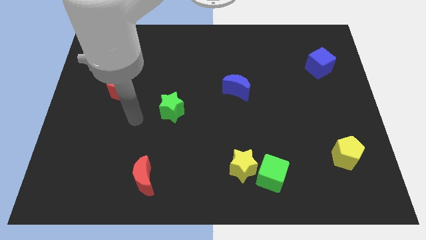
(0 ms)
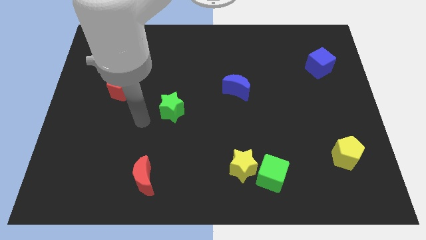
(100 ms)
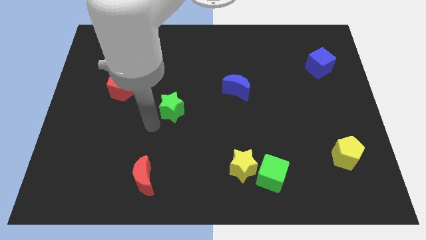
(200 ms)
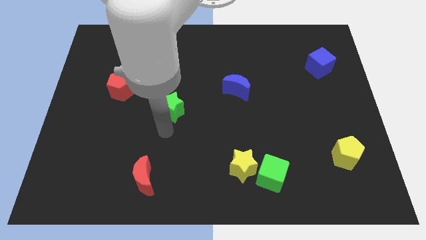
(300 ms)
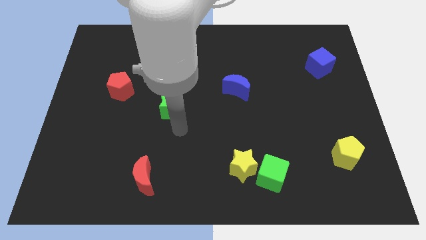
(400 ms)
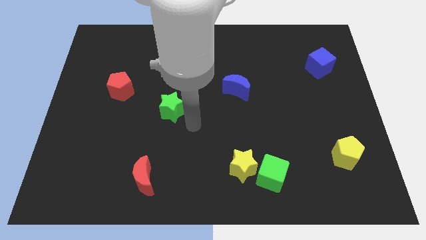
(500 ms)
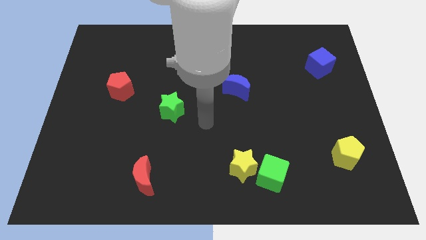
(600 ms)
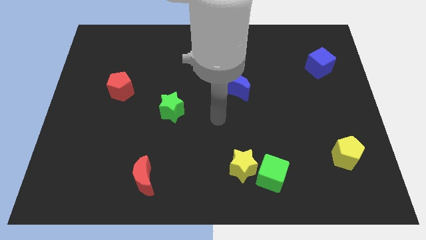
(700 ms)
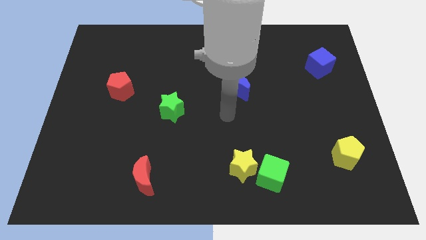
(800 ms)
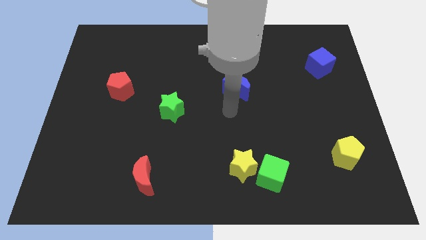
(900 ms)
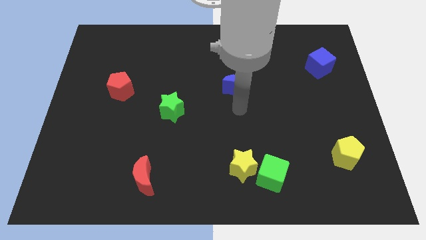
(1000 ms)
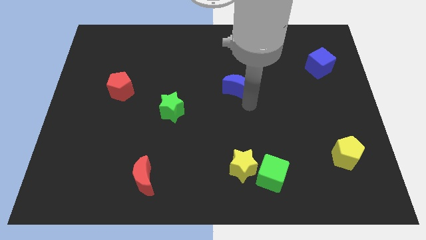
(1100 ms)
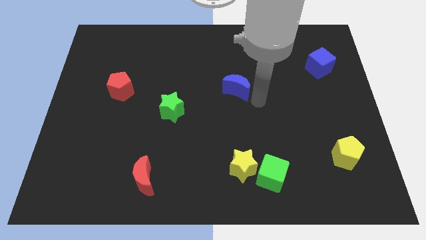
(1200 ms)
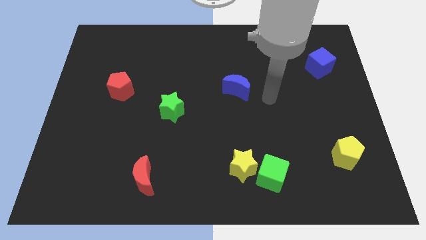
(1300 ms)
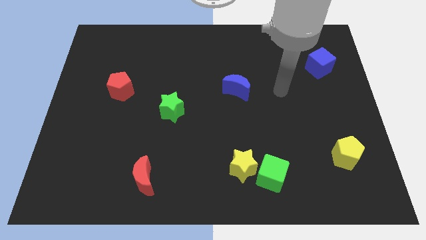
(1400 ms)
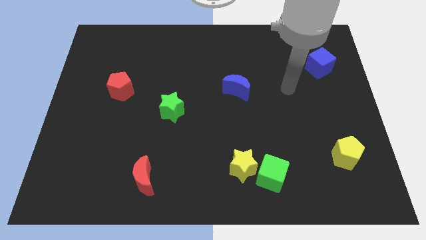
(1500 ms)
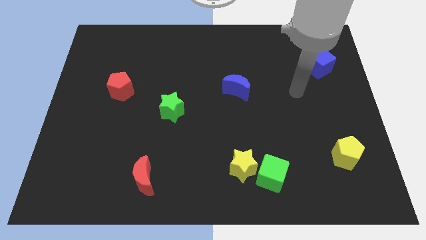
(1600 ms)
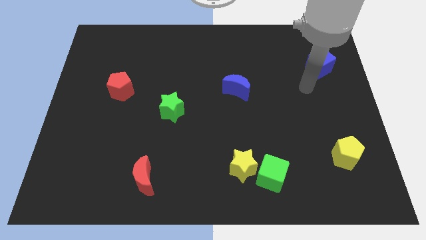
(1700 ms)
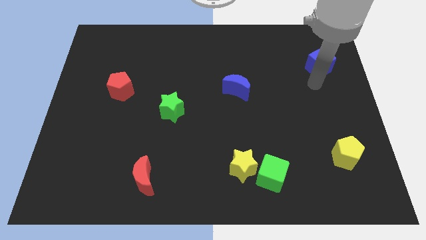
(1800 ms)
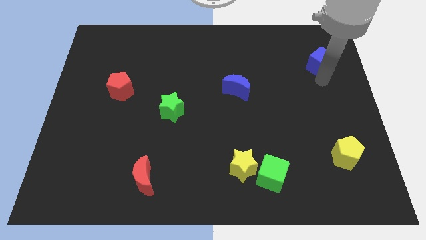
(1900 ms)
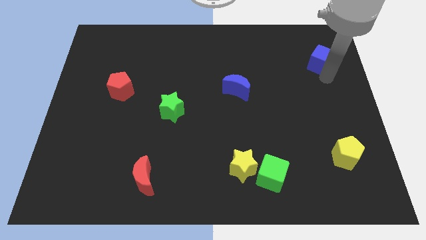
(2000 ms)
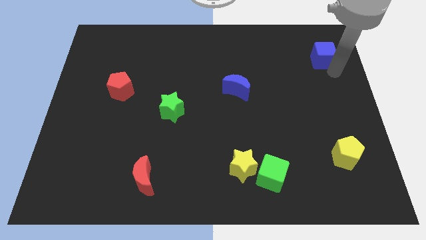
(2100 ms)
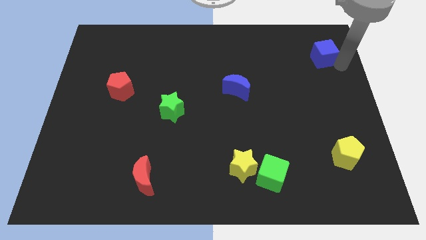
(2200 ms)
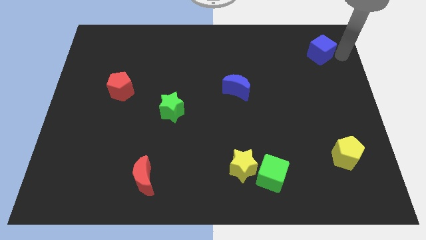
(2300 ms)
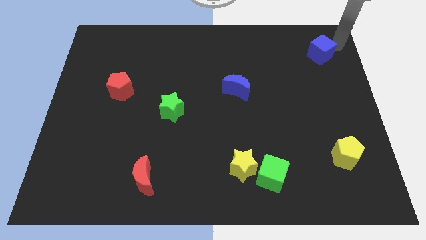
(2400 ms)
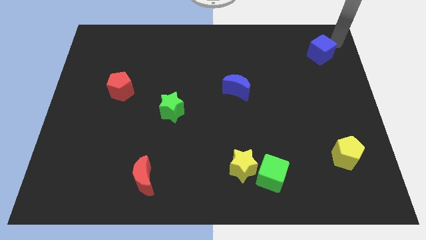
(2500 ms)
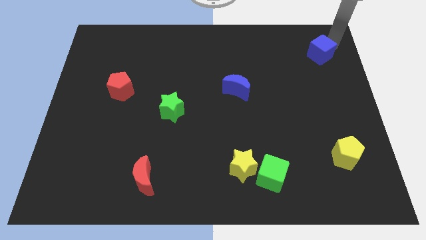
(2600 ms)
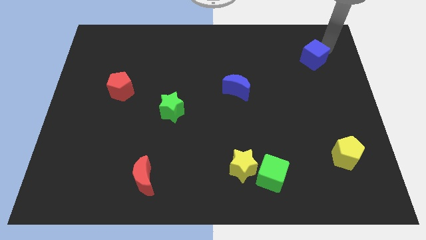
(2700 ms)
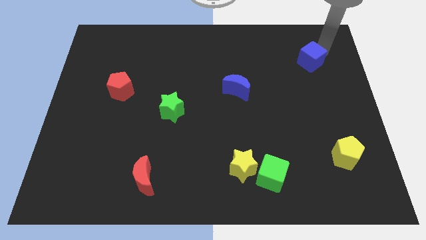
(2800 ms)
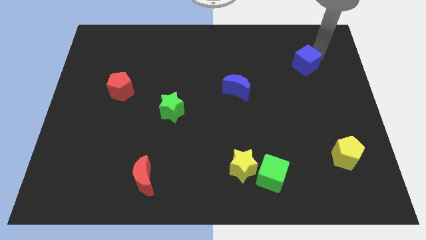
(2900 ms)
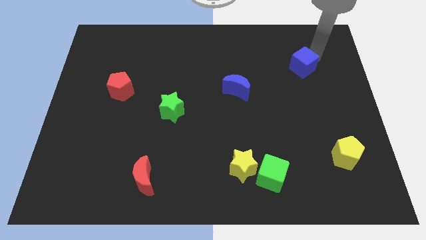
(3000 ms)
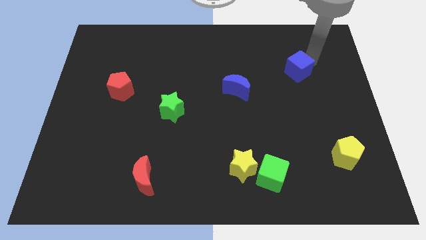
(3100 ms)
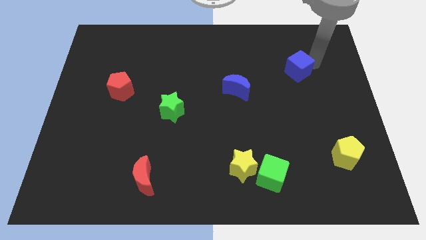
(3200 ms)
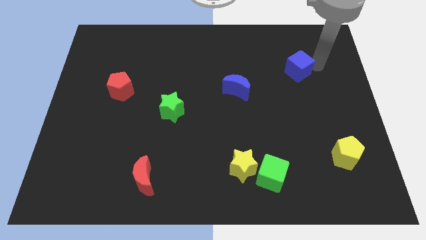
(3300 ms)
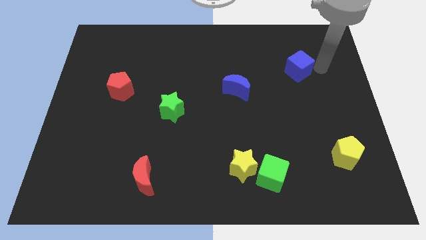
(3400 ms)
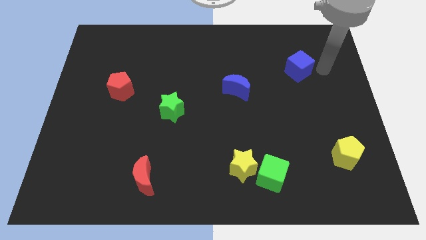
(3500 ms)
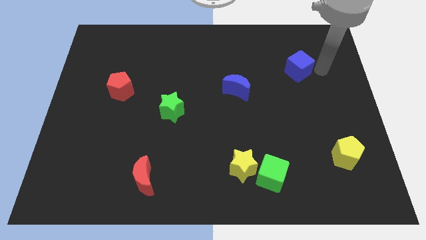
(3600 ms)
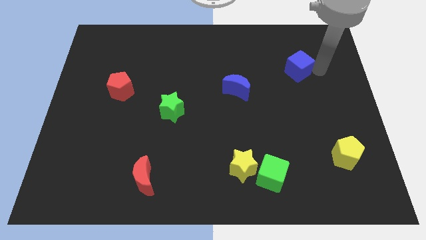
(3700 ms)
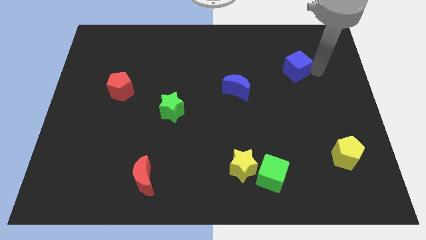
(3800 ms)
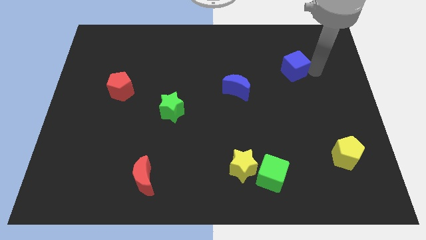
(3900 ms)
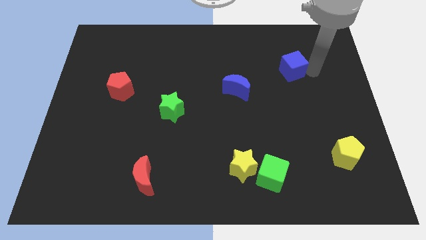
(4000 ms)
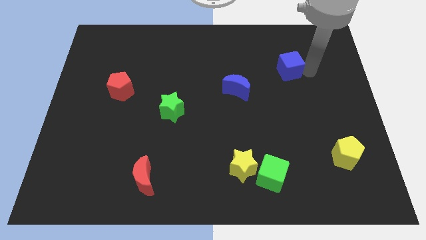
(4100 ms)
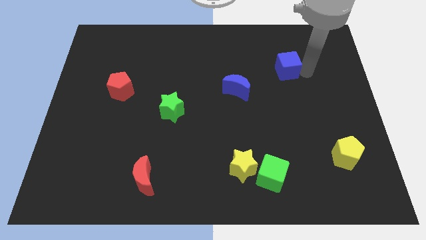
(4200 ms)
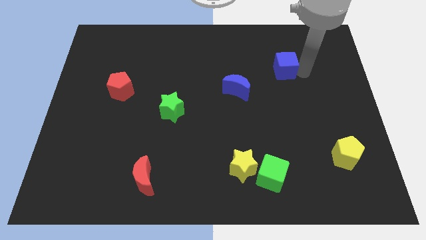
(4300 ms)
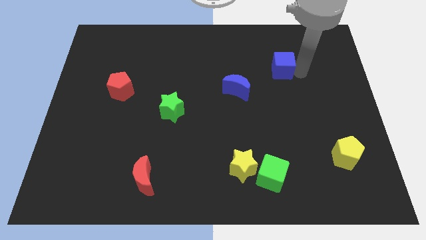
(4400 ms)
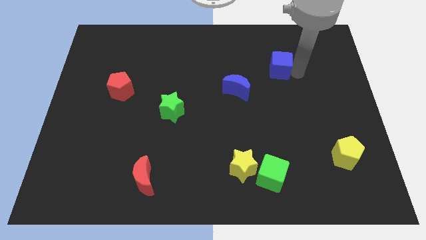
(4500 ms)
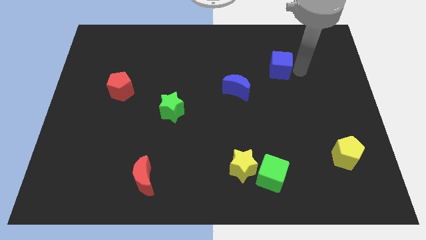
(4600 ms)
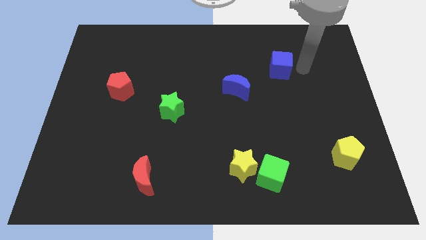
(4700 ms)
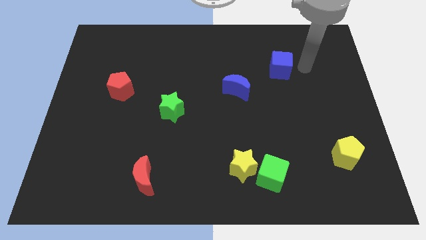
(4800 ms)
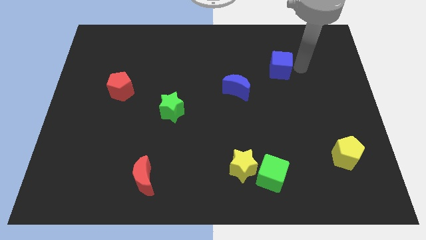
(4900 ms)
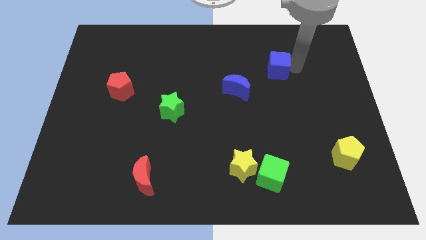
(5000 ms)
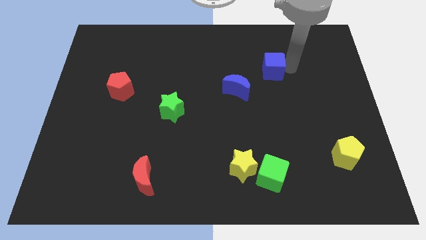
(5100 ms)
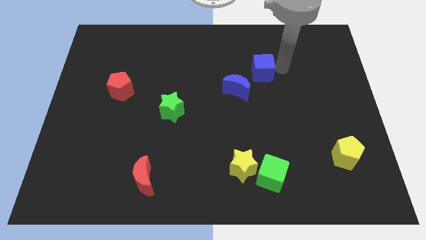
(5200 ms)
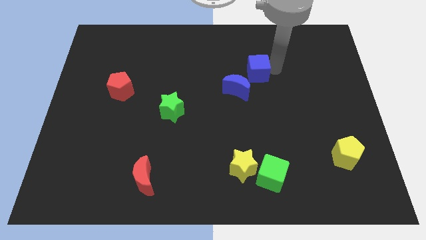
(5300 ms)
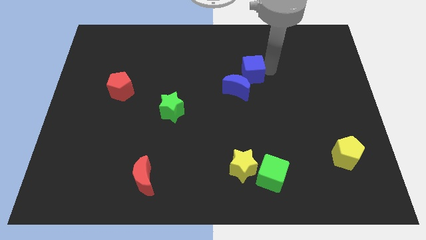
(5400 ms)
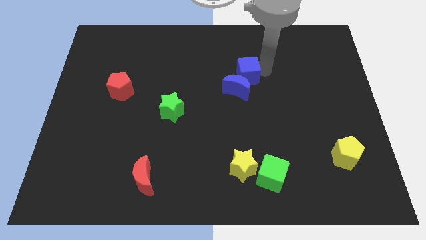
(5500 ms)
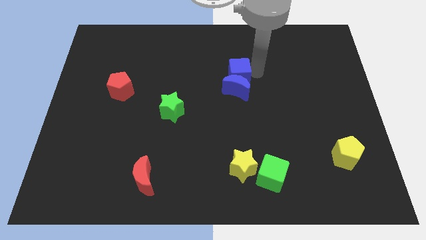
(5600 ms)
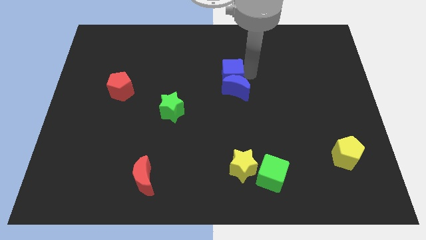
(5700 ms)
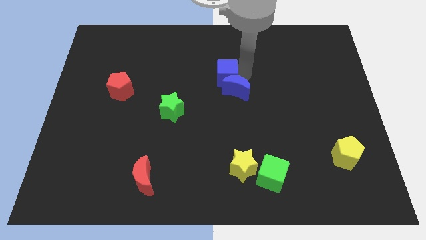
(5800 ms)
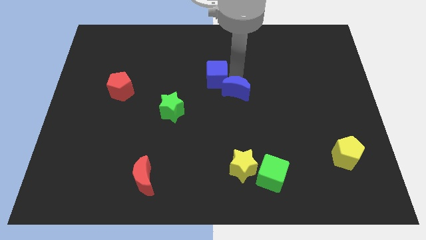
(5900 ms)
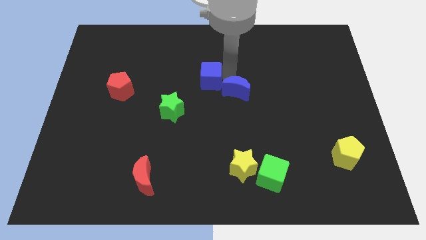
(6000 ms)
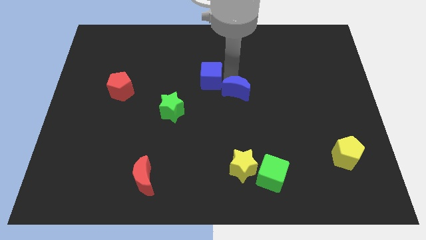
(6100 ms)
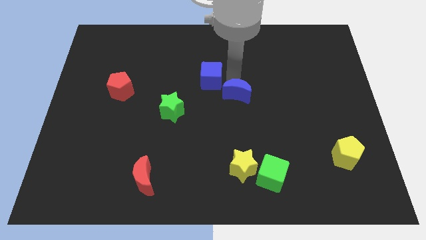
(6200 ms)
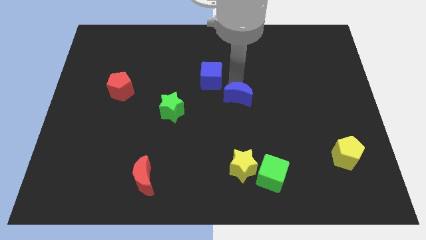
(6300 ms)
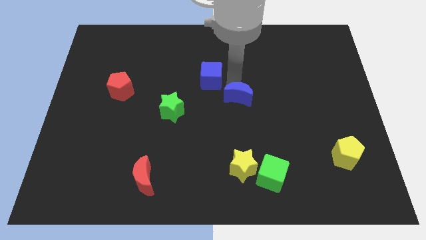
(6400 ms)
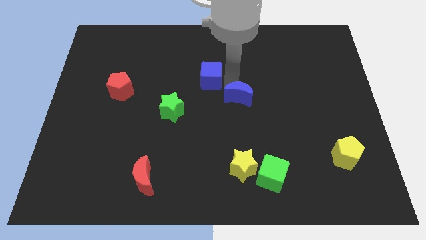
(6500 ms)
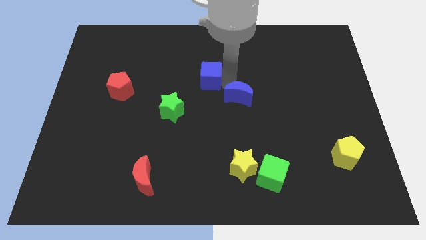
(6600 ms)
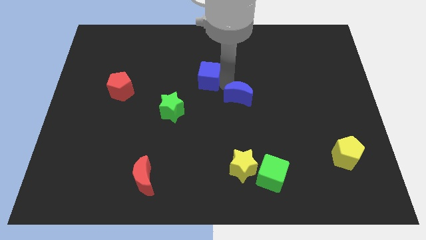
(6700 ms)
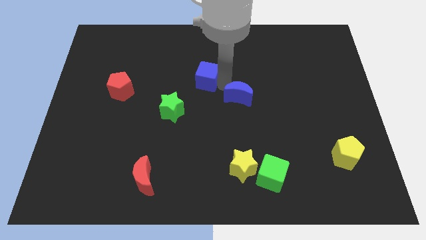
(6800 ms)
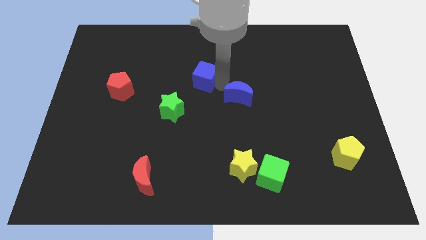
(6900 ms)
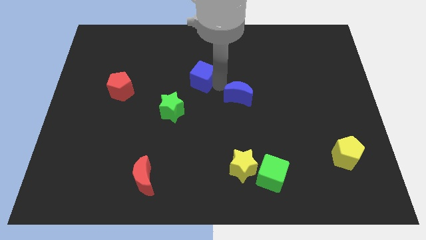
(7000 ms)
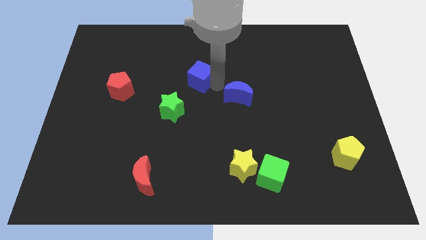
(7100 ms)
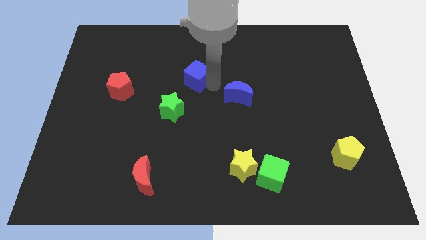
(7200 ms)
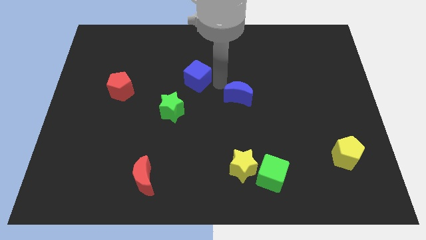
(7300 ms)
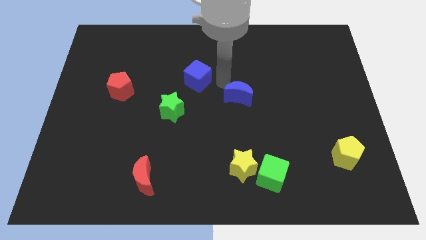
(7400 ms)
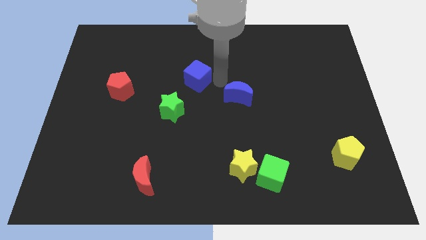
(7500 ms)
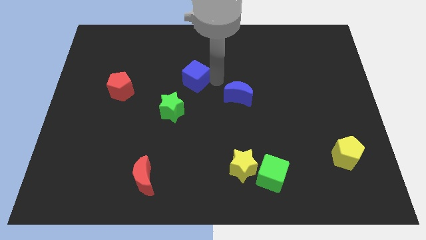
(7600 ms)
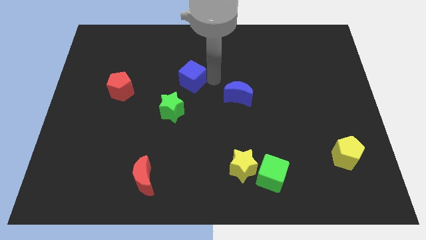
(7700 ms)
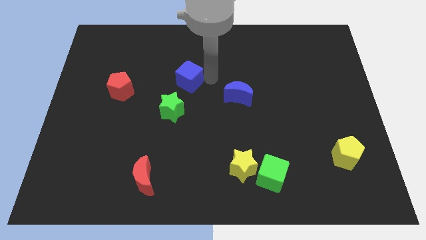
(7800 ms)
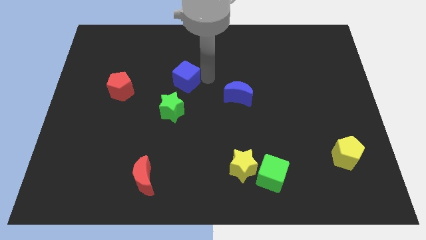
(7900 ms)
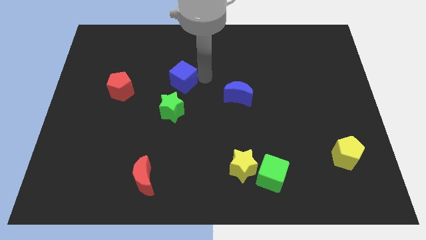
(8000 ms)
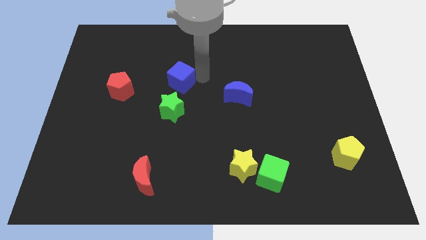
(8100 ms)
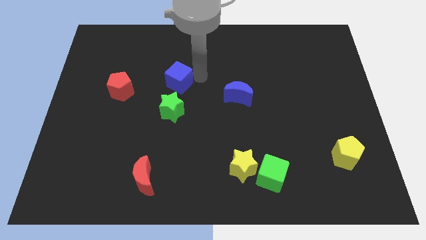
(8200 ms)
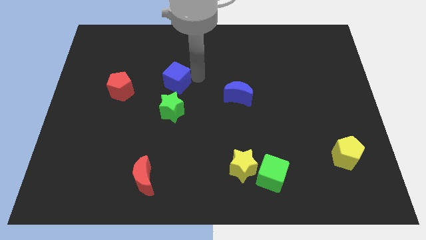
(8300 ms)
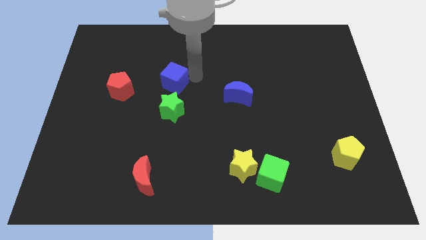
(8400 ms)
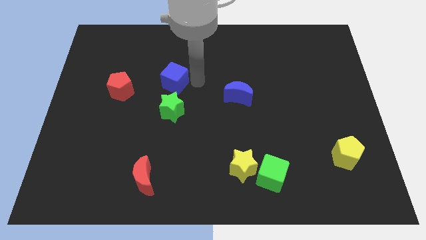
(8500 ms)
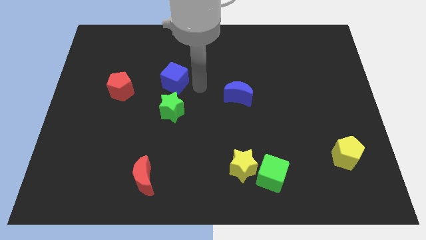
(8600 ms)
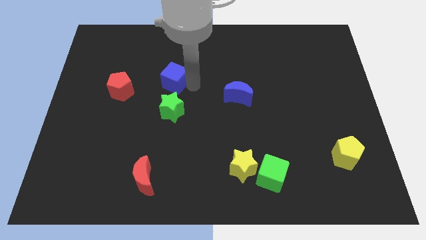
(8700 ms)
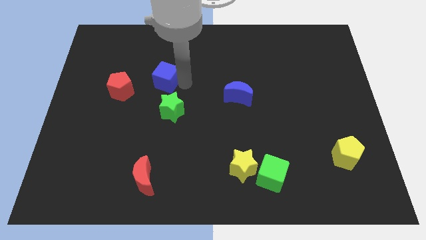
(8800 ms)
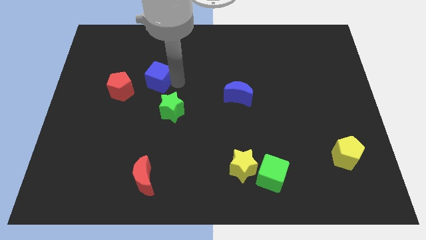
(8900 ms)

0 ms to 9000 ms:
push the blue cube diagonally up and to the right of the red pentagon
